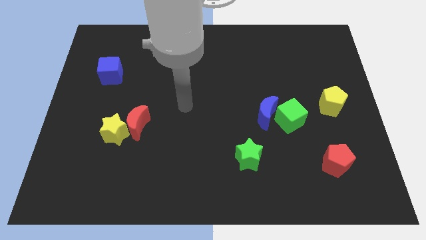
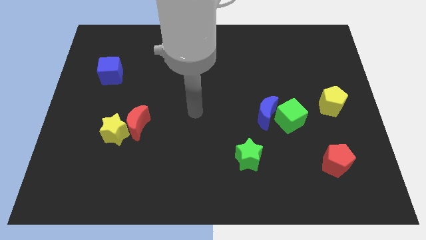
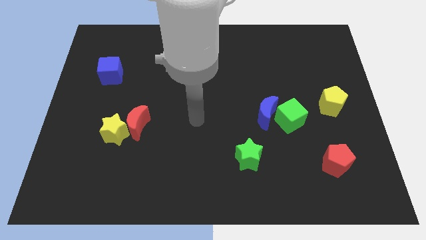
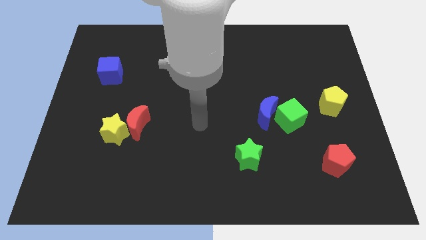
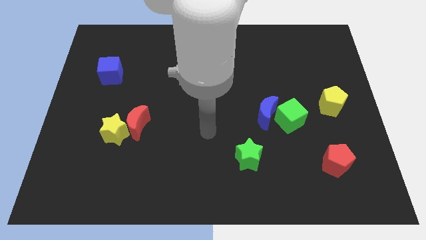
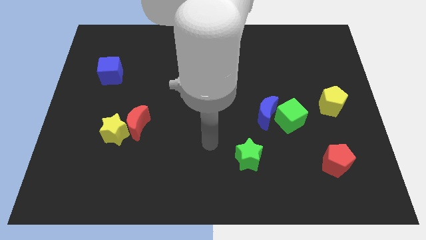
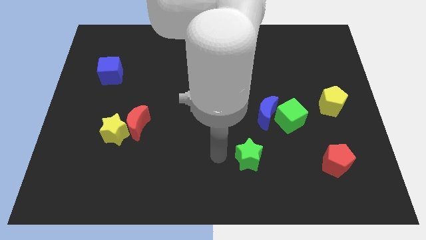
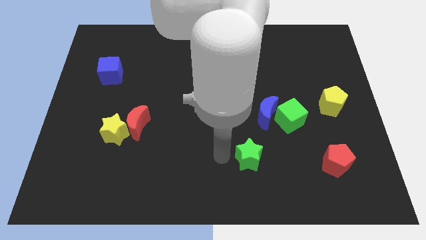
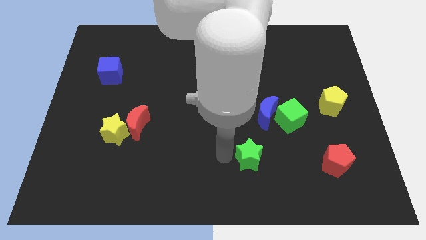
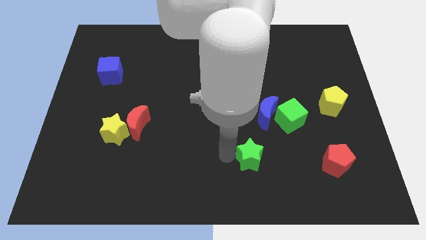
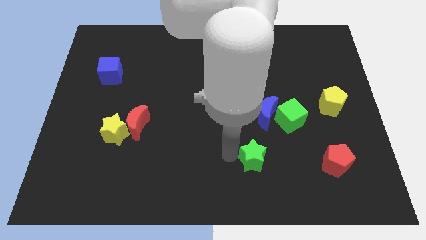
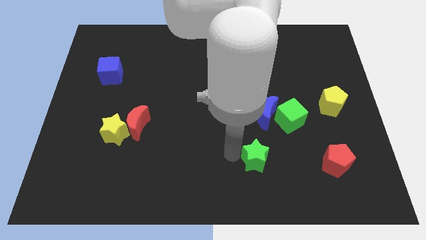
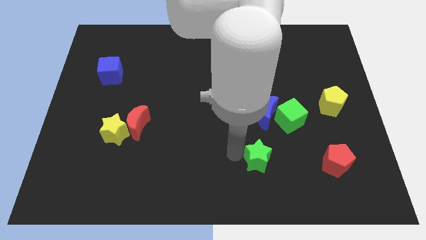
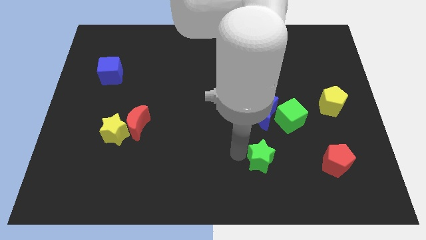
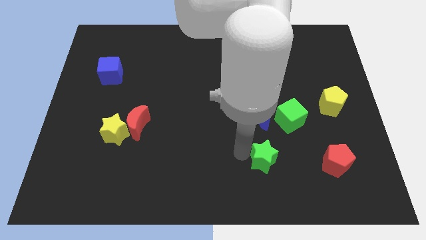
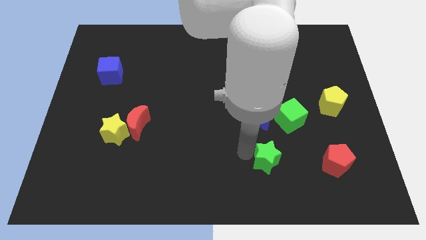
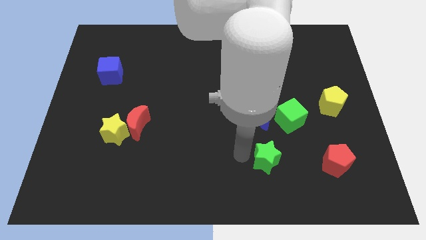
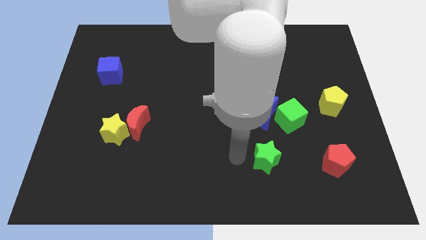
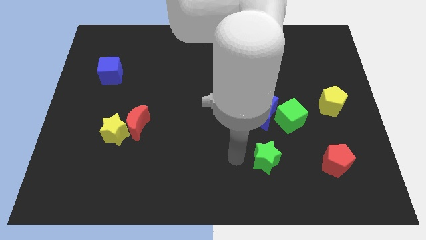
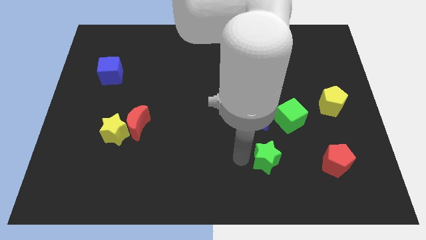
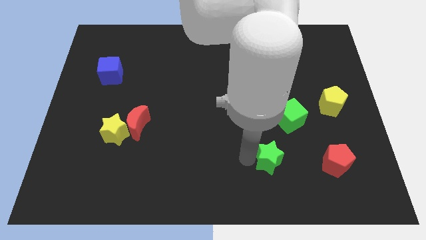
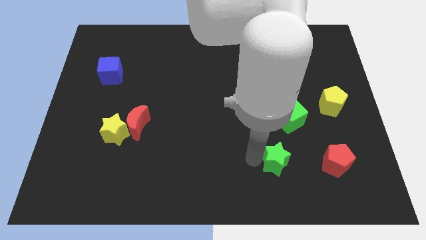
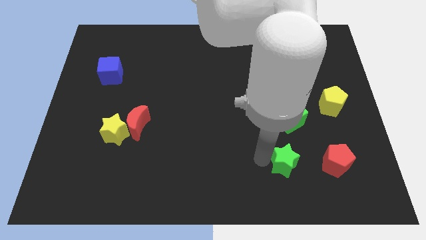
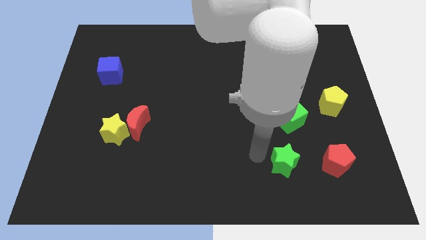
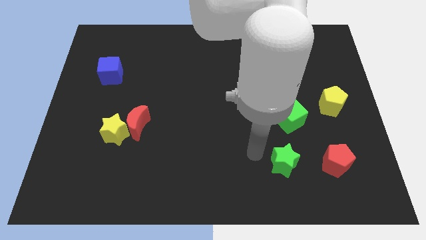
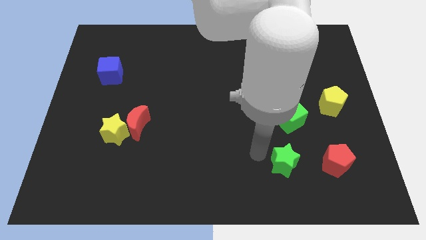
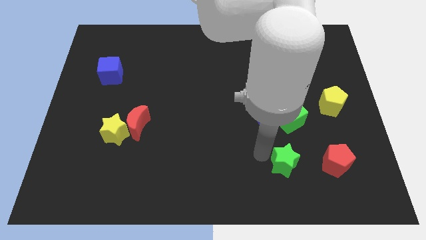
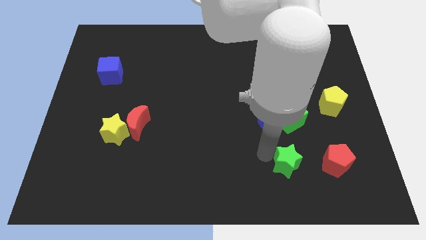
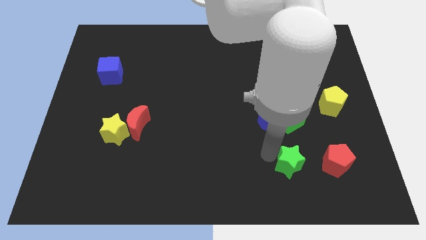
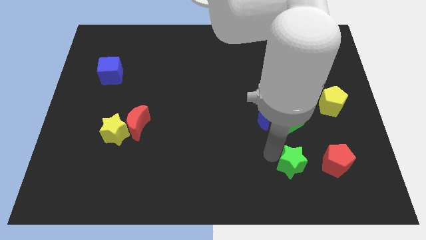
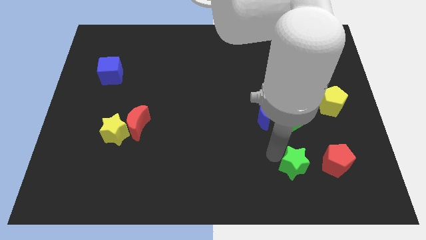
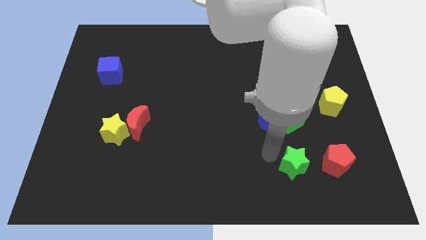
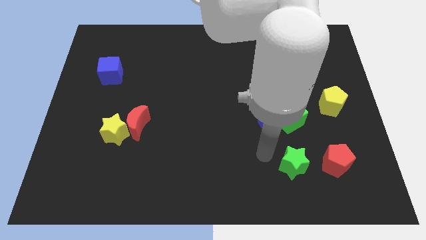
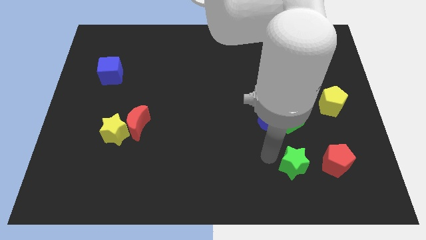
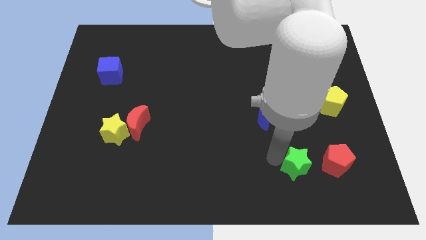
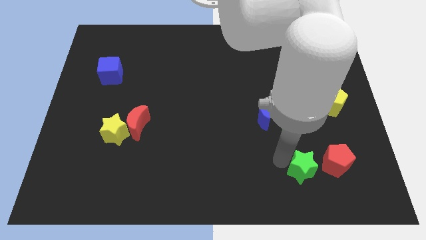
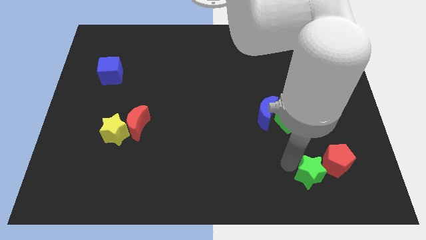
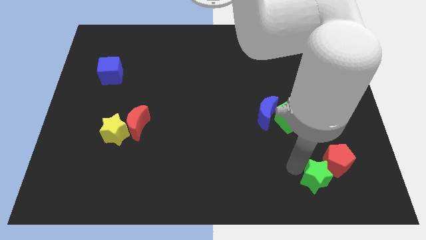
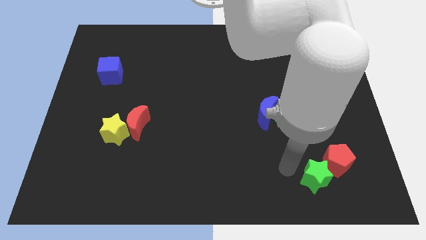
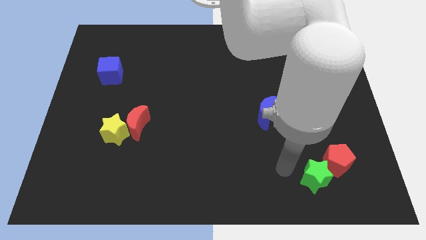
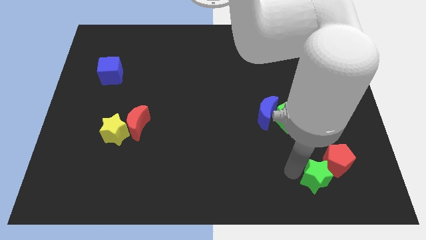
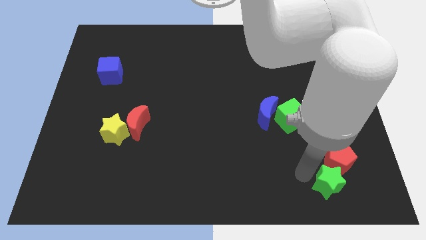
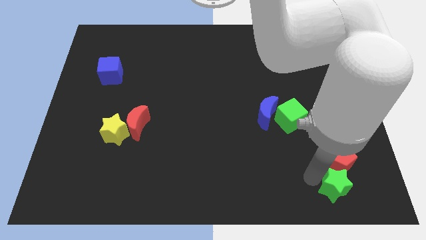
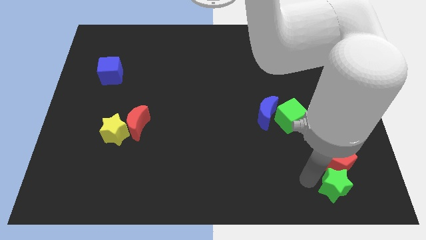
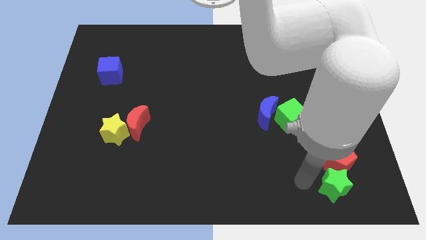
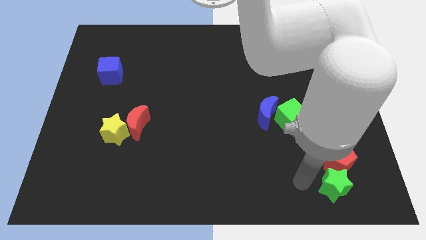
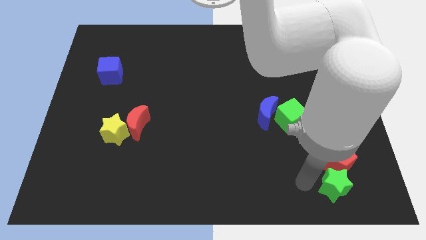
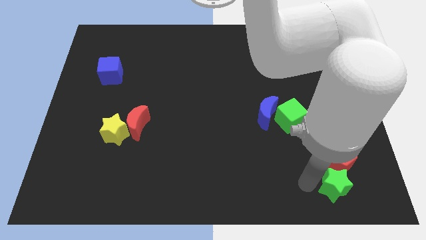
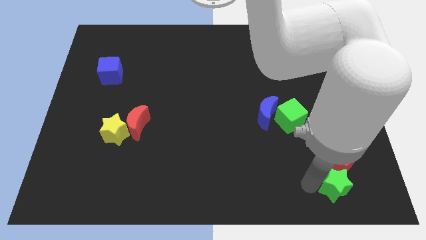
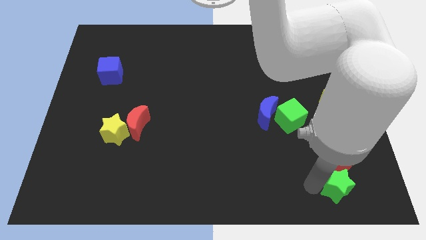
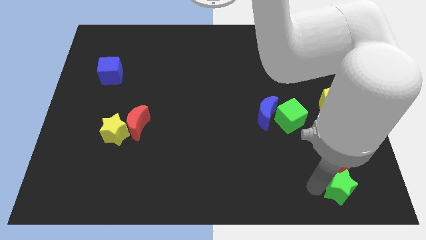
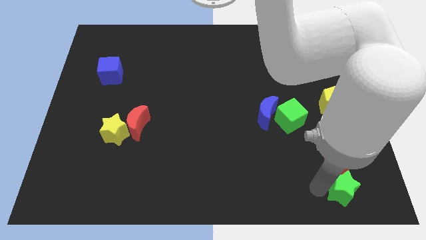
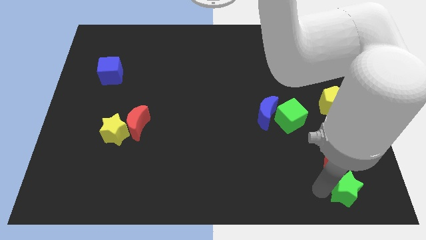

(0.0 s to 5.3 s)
put the green star to the bottom right
